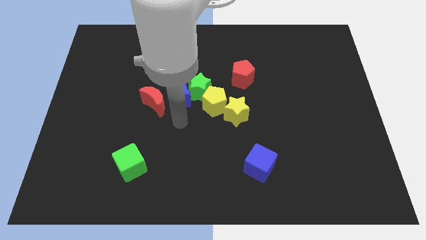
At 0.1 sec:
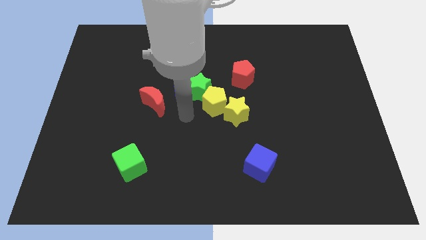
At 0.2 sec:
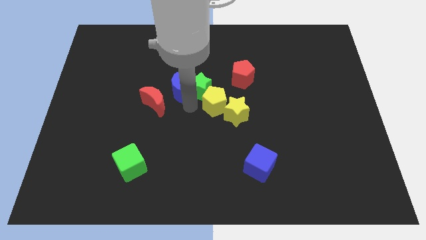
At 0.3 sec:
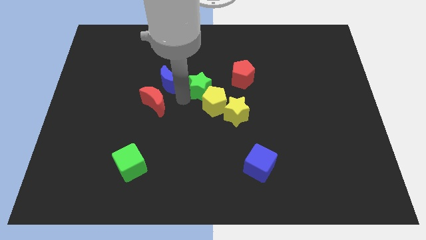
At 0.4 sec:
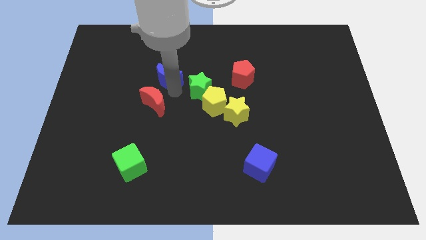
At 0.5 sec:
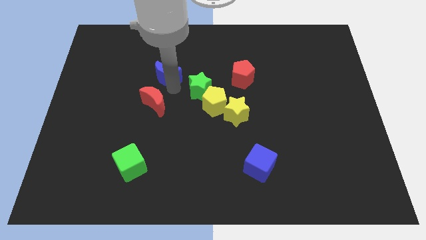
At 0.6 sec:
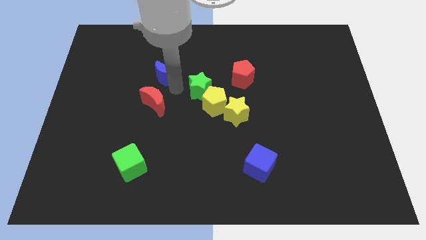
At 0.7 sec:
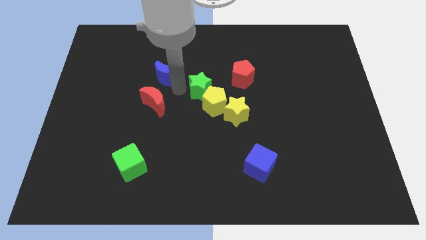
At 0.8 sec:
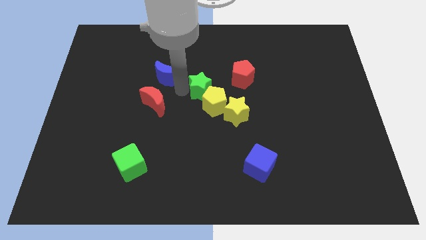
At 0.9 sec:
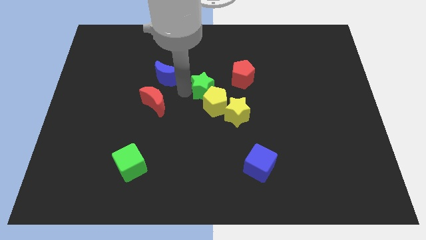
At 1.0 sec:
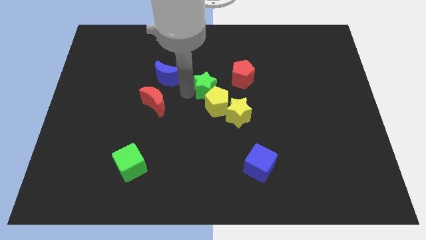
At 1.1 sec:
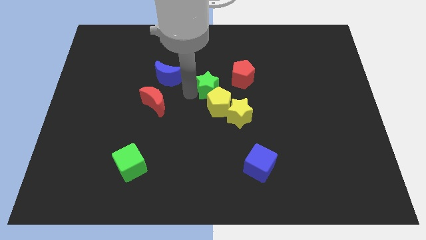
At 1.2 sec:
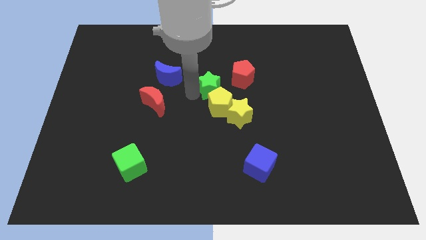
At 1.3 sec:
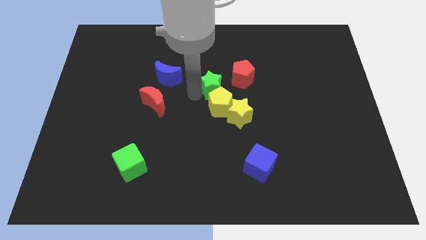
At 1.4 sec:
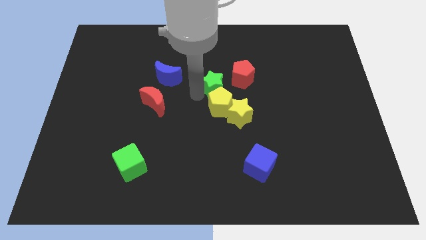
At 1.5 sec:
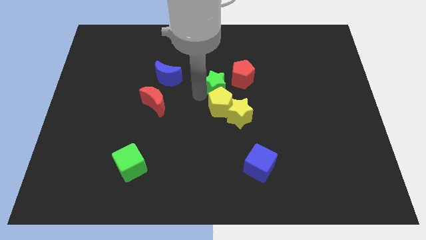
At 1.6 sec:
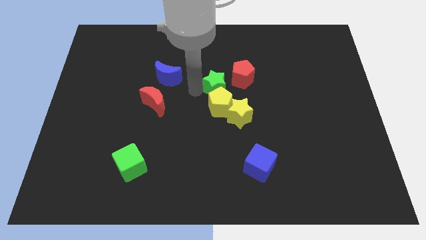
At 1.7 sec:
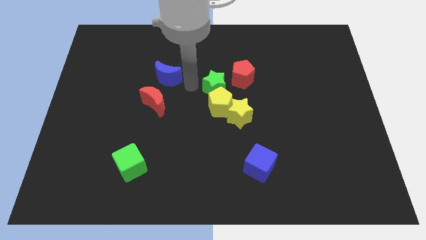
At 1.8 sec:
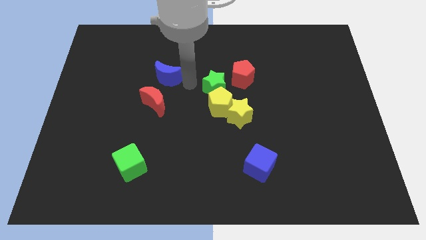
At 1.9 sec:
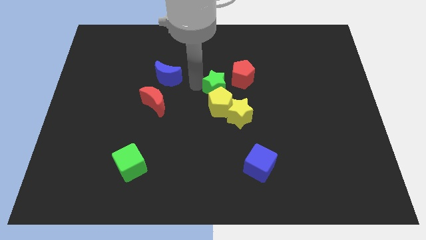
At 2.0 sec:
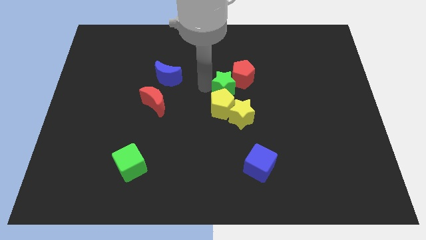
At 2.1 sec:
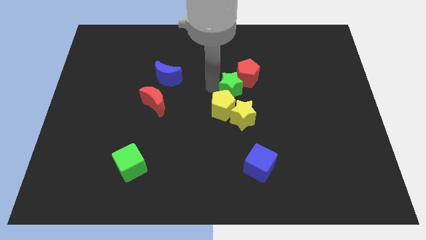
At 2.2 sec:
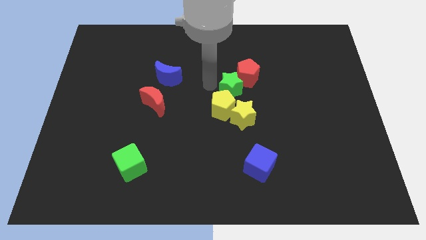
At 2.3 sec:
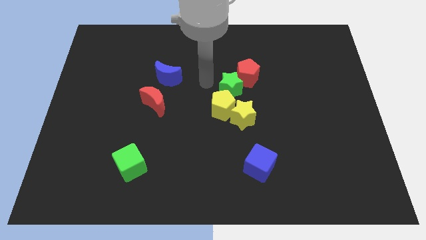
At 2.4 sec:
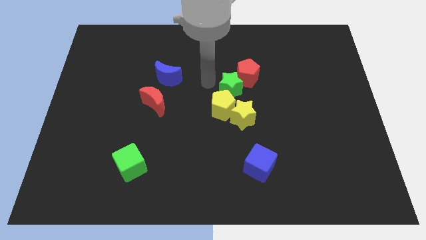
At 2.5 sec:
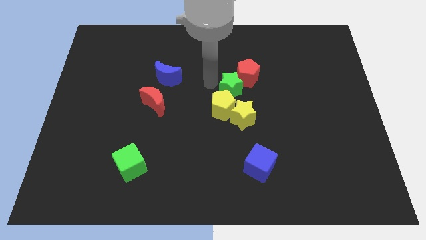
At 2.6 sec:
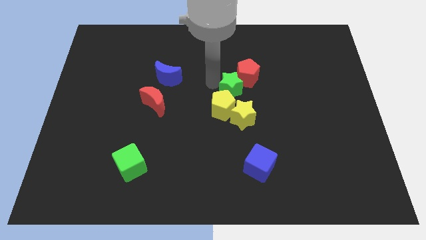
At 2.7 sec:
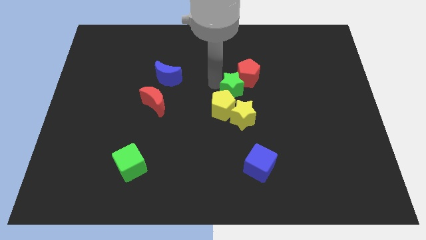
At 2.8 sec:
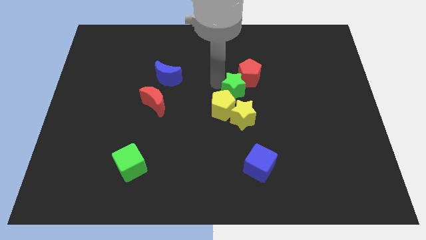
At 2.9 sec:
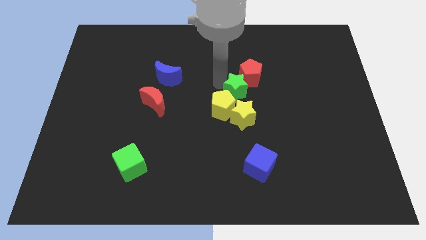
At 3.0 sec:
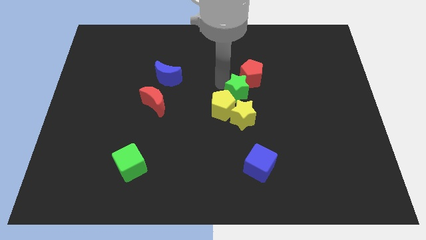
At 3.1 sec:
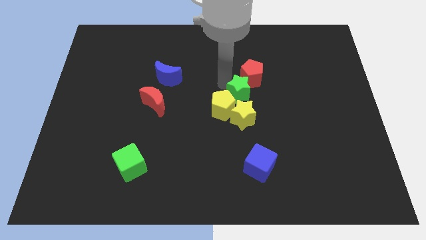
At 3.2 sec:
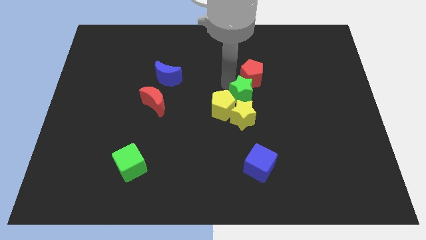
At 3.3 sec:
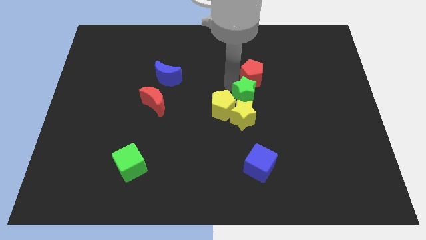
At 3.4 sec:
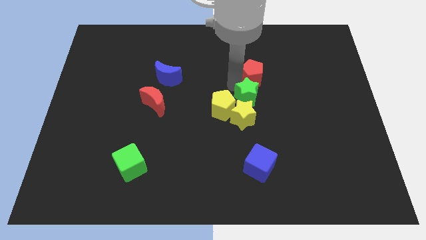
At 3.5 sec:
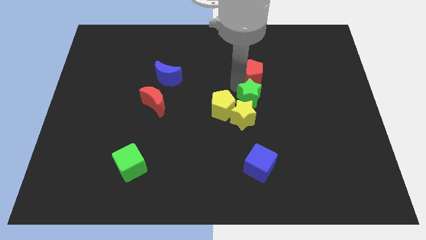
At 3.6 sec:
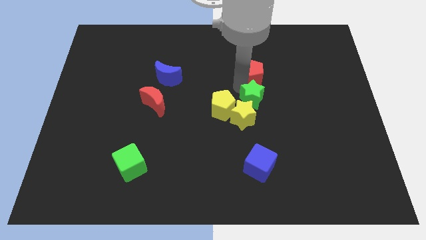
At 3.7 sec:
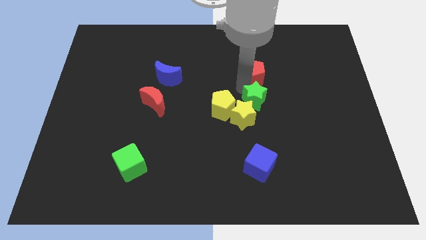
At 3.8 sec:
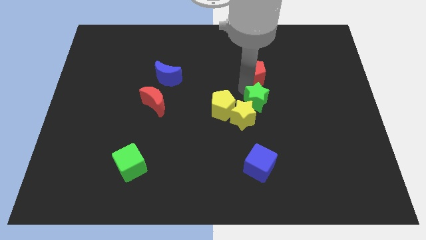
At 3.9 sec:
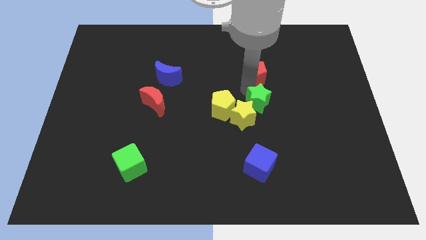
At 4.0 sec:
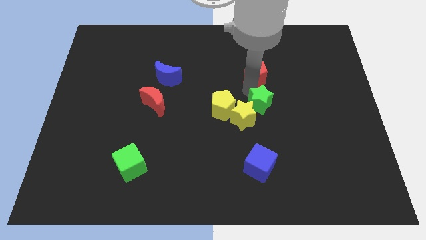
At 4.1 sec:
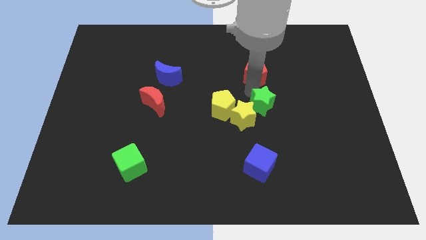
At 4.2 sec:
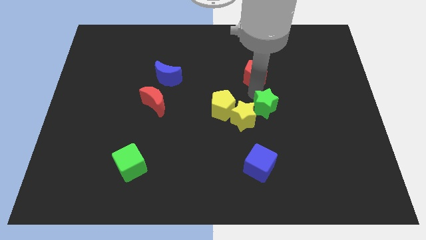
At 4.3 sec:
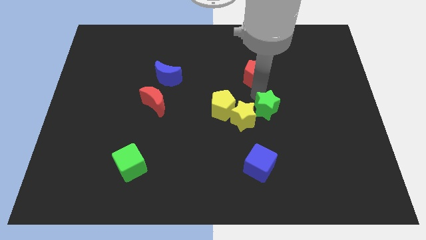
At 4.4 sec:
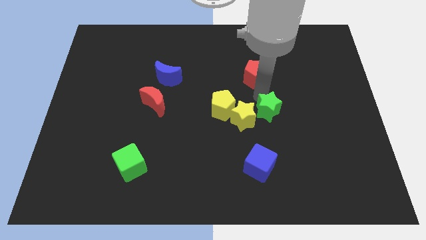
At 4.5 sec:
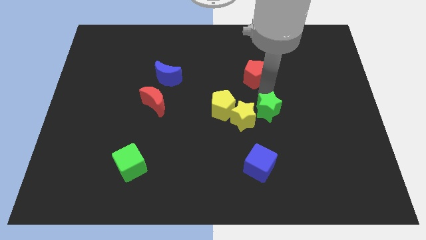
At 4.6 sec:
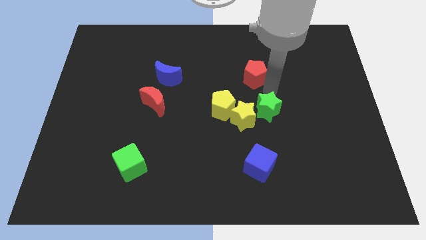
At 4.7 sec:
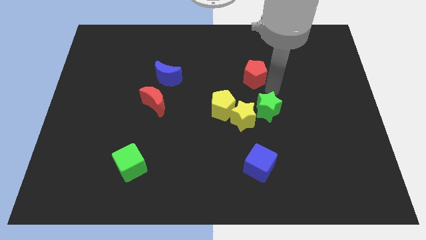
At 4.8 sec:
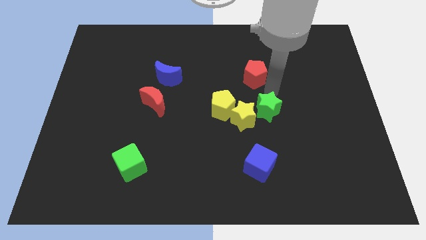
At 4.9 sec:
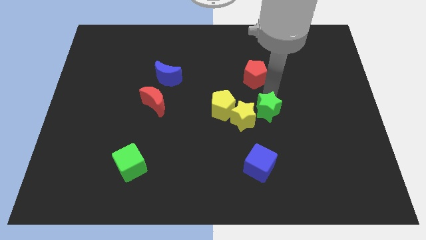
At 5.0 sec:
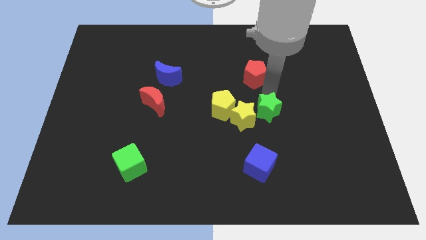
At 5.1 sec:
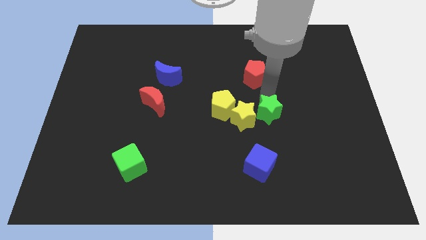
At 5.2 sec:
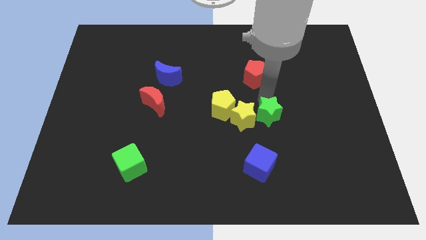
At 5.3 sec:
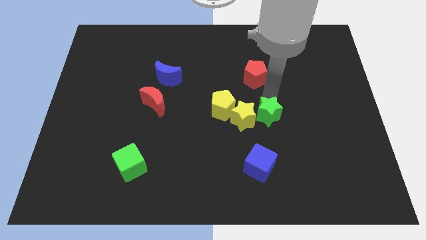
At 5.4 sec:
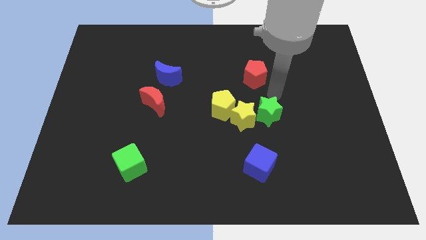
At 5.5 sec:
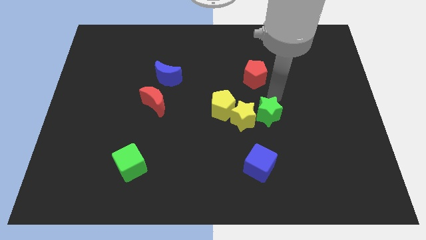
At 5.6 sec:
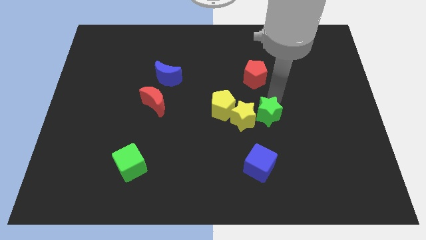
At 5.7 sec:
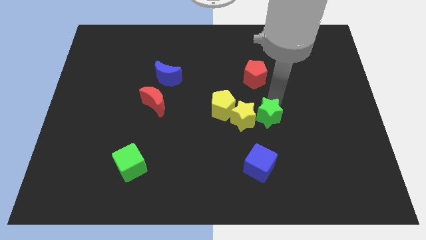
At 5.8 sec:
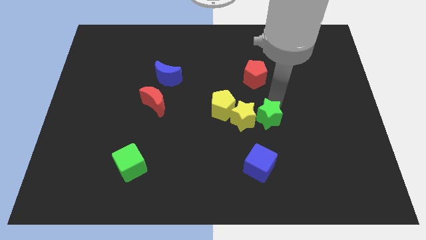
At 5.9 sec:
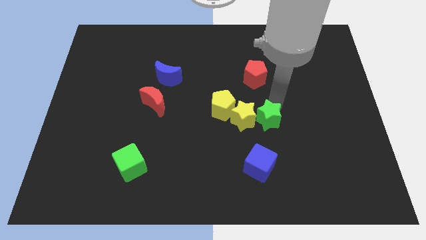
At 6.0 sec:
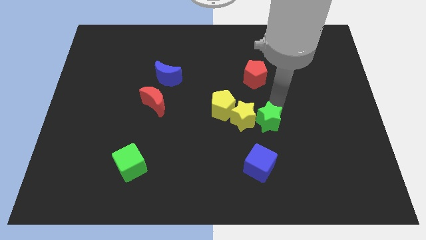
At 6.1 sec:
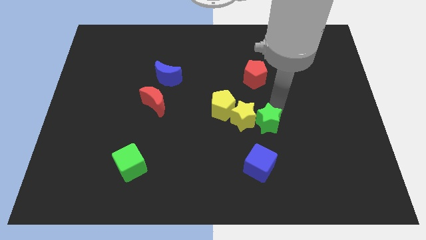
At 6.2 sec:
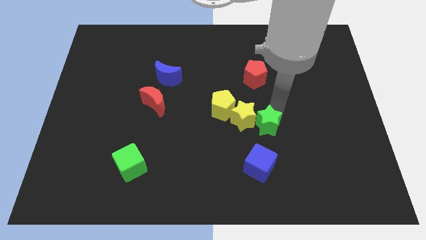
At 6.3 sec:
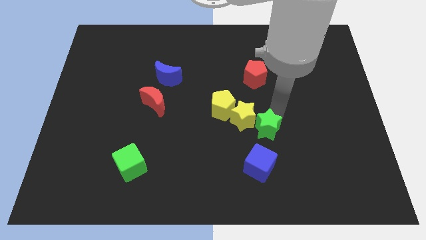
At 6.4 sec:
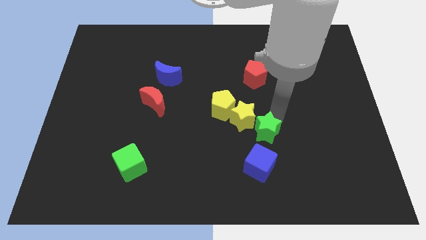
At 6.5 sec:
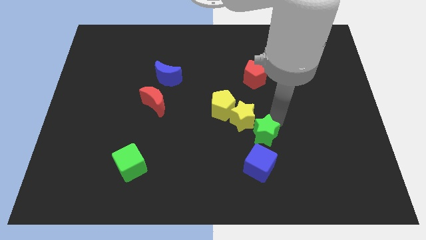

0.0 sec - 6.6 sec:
move the green star below the yellow star
